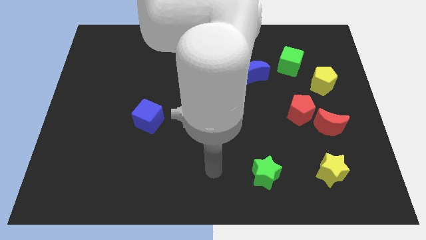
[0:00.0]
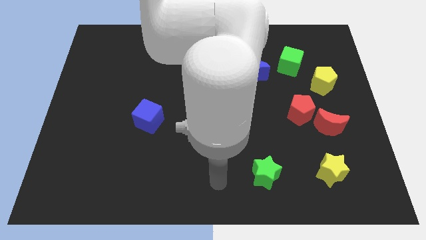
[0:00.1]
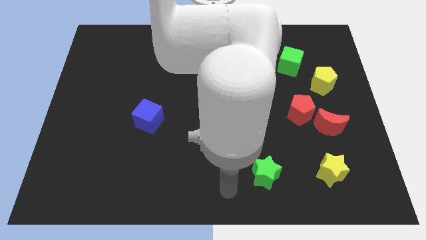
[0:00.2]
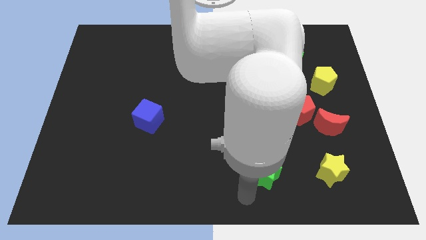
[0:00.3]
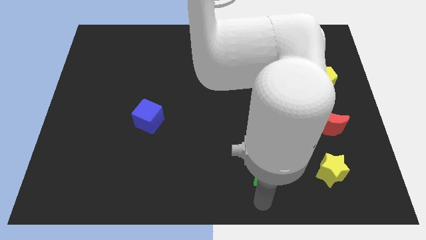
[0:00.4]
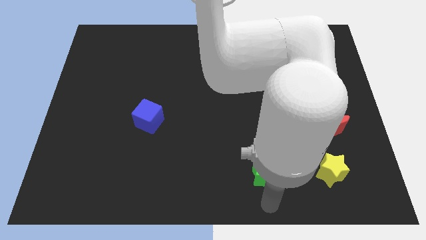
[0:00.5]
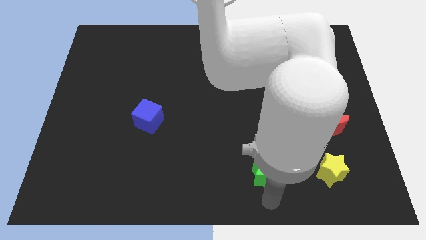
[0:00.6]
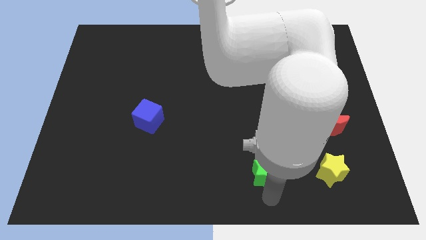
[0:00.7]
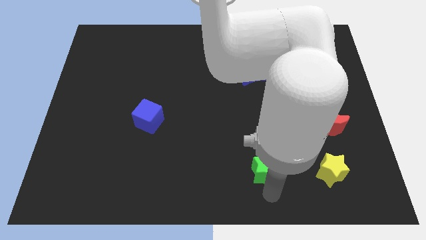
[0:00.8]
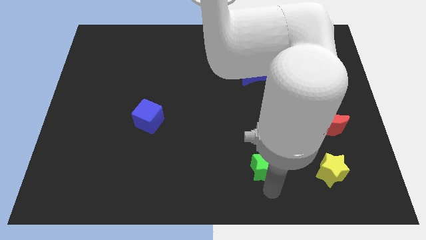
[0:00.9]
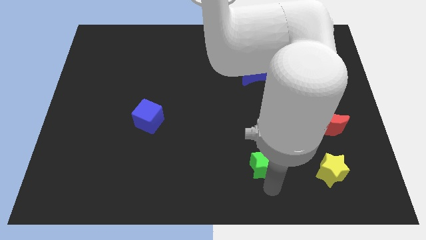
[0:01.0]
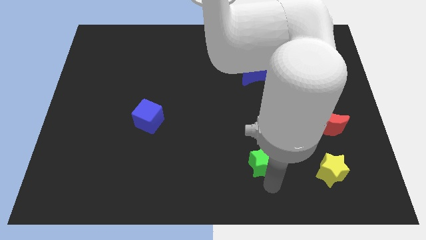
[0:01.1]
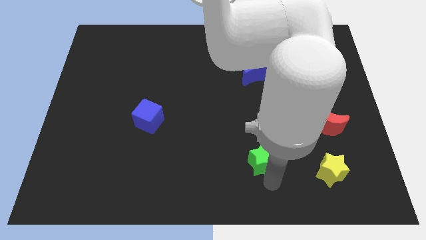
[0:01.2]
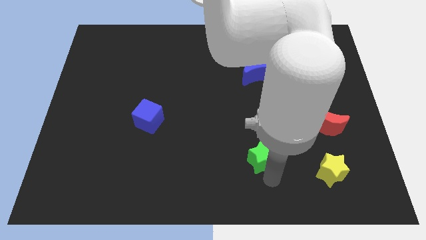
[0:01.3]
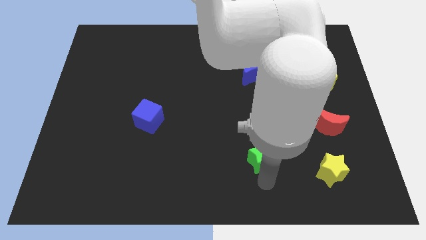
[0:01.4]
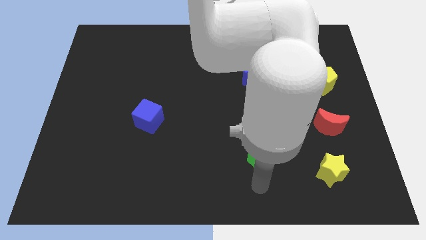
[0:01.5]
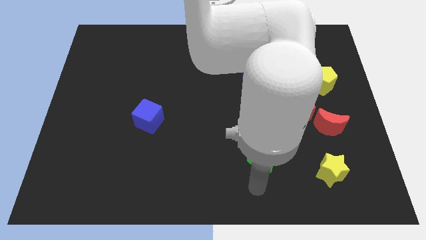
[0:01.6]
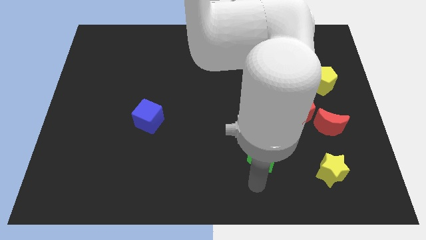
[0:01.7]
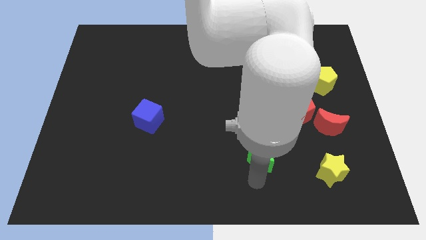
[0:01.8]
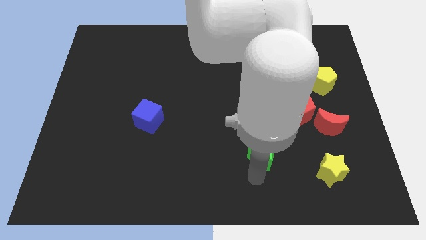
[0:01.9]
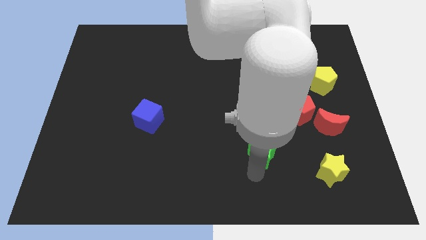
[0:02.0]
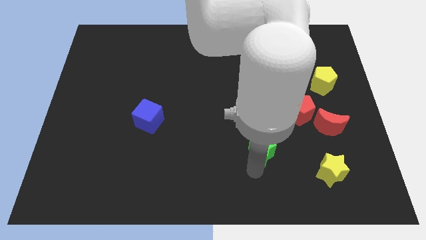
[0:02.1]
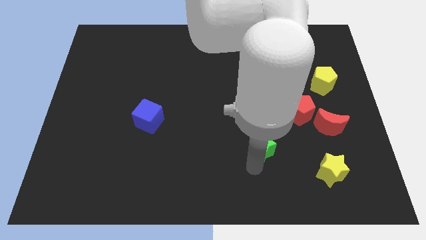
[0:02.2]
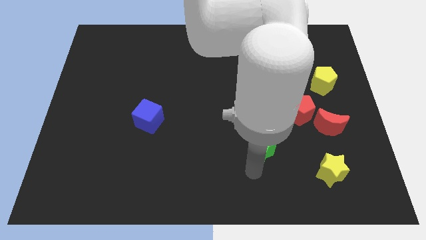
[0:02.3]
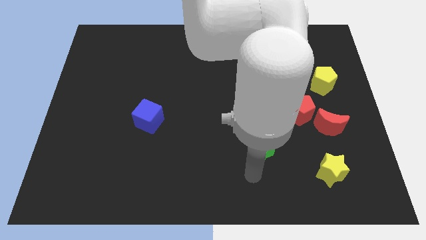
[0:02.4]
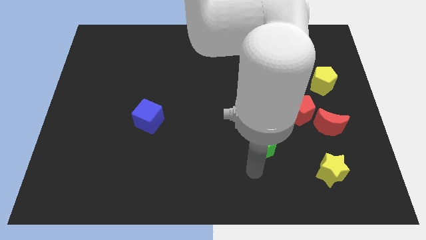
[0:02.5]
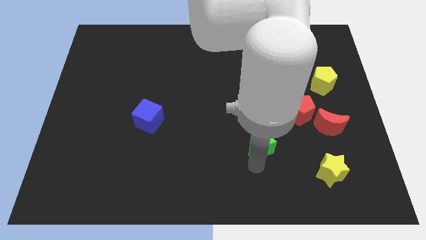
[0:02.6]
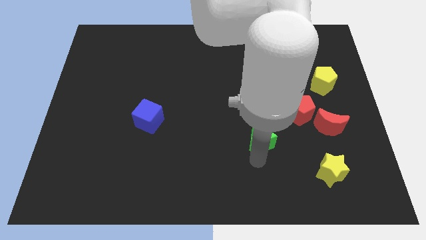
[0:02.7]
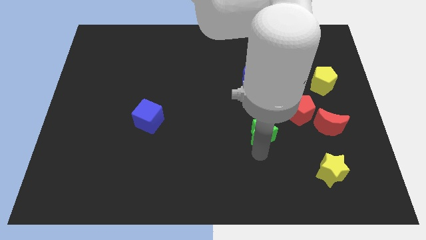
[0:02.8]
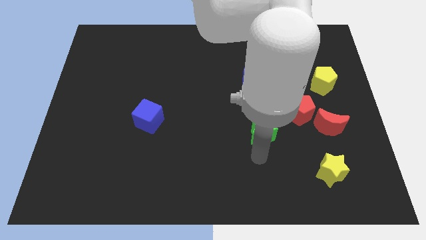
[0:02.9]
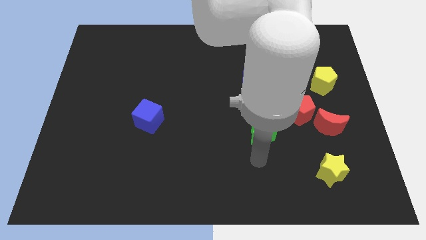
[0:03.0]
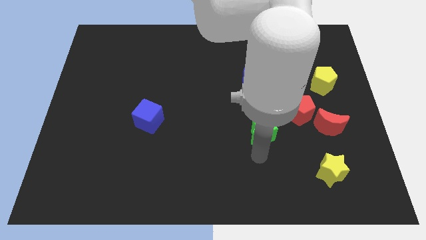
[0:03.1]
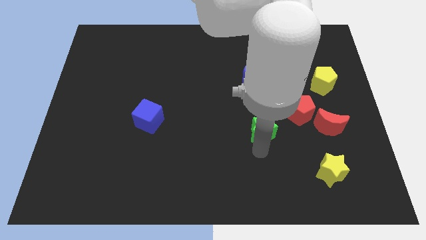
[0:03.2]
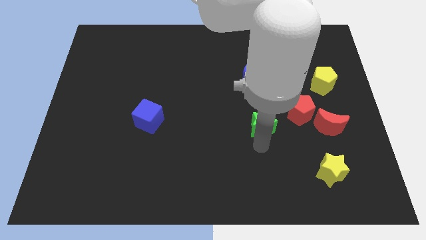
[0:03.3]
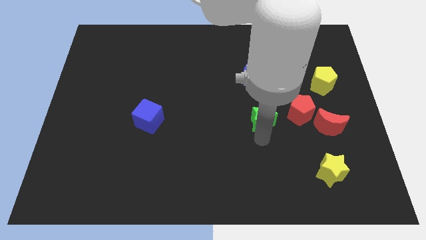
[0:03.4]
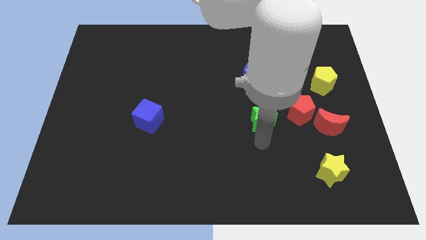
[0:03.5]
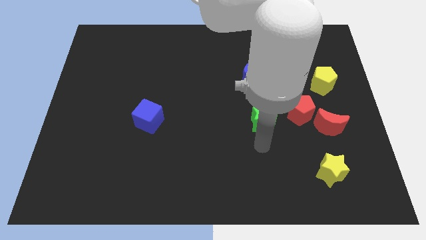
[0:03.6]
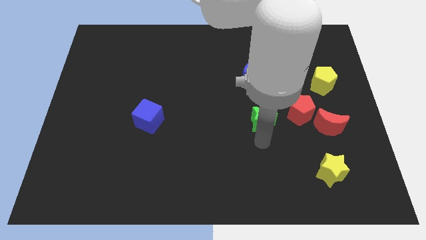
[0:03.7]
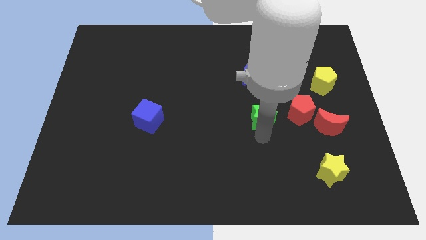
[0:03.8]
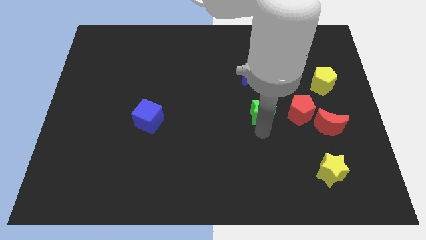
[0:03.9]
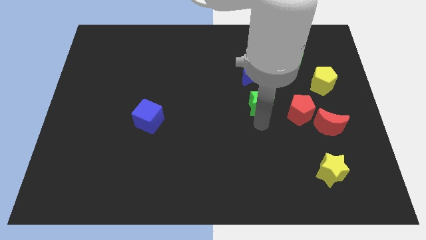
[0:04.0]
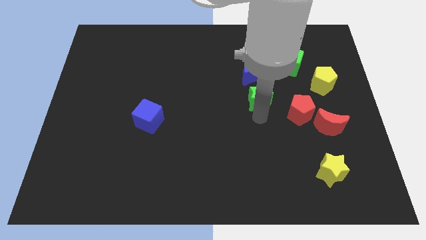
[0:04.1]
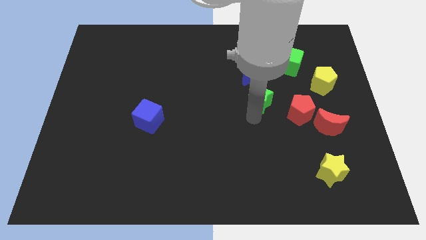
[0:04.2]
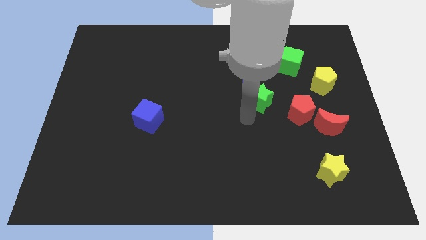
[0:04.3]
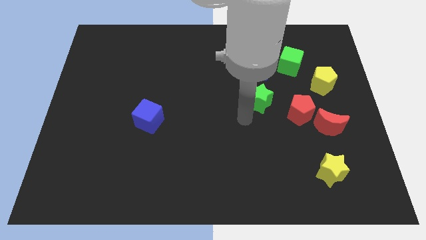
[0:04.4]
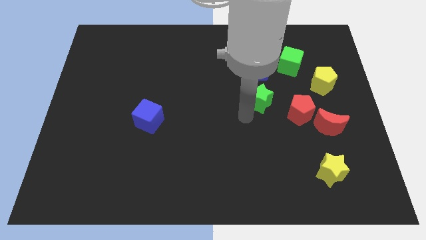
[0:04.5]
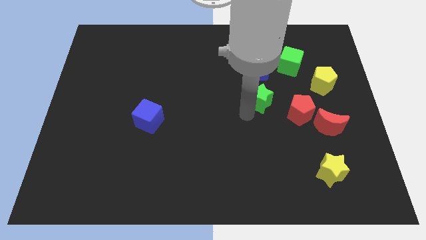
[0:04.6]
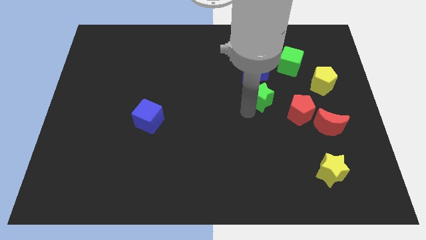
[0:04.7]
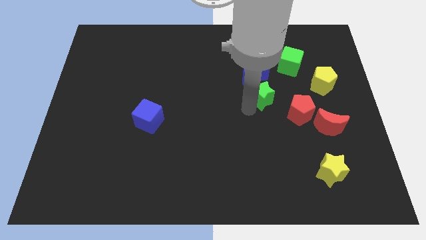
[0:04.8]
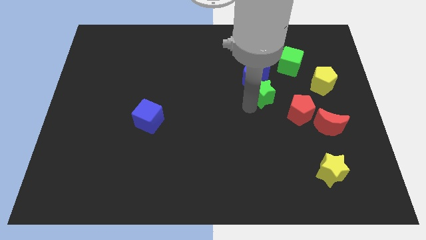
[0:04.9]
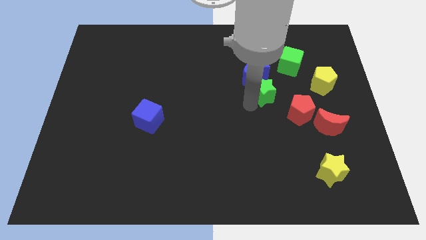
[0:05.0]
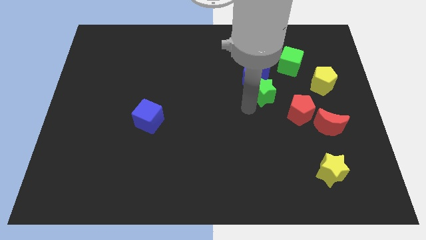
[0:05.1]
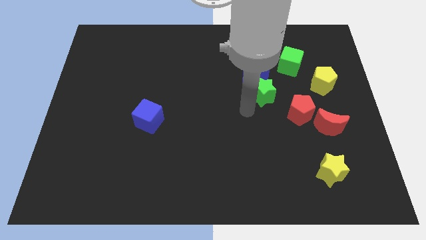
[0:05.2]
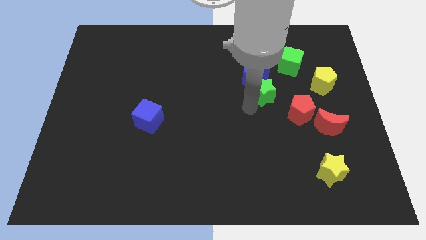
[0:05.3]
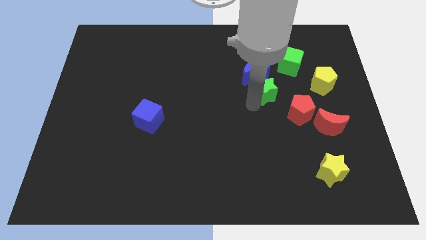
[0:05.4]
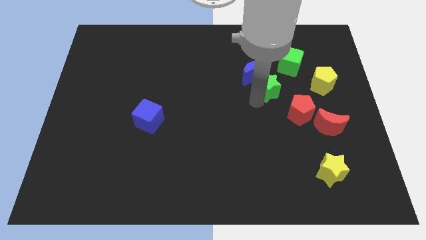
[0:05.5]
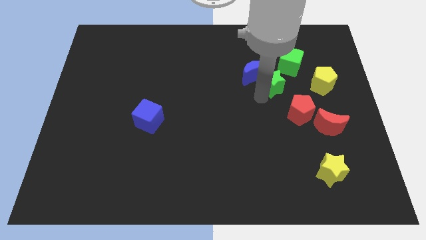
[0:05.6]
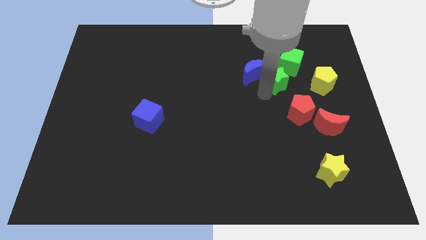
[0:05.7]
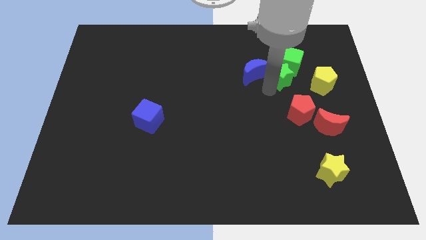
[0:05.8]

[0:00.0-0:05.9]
move the green star close to the green cube

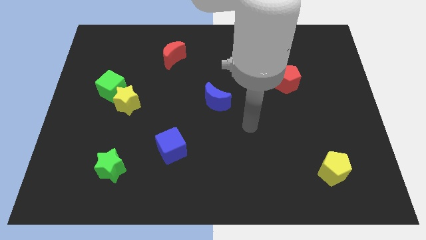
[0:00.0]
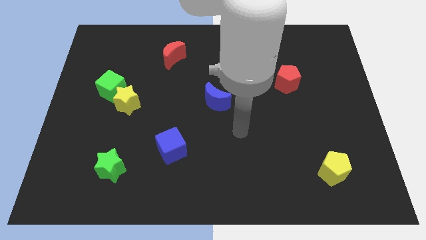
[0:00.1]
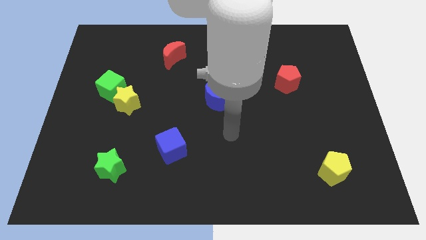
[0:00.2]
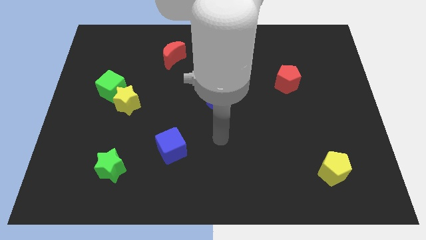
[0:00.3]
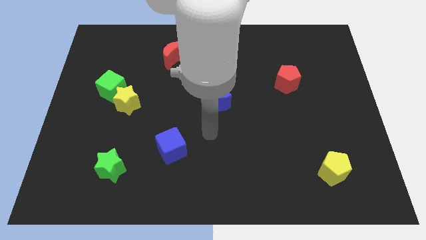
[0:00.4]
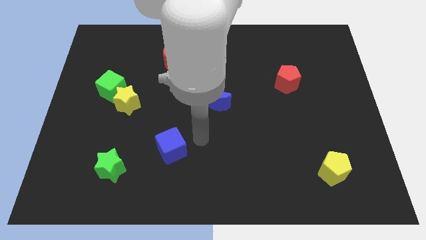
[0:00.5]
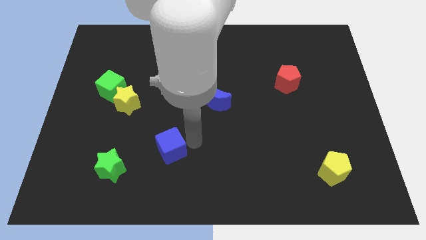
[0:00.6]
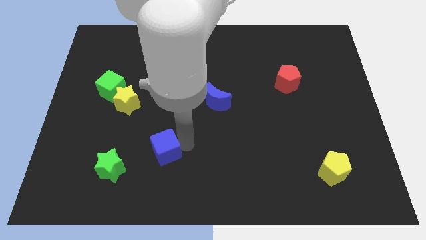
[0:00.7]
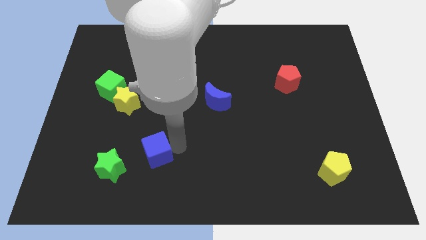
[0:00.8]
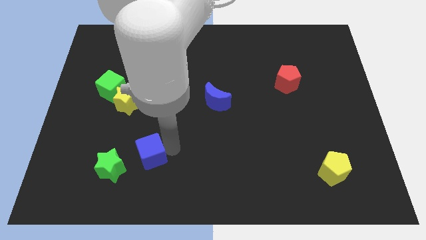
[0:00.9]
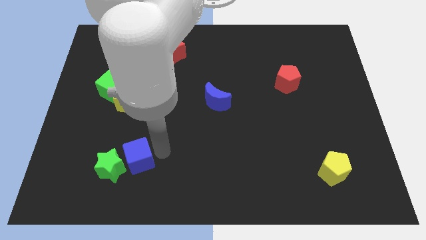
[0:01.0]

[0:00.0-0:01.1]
move the blue cube next to the green star
